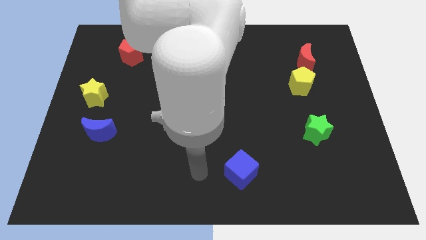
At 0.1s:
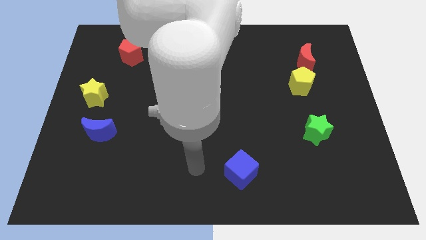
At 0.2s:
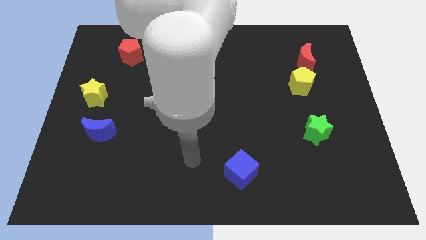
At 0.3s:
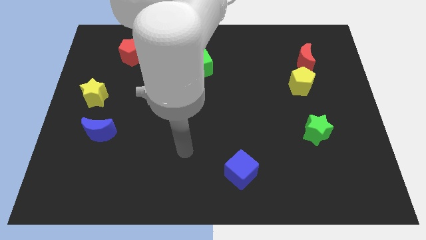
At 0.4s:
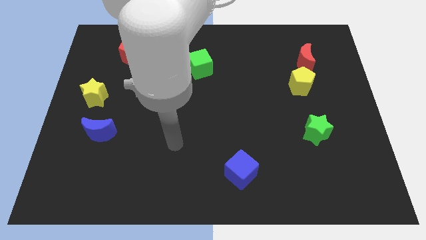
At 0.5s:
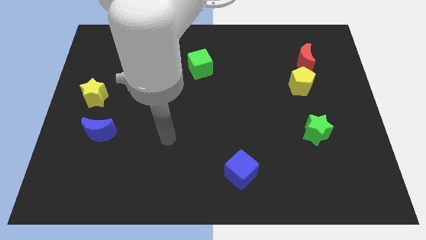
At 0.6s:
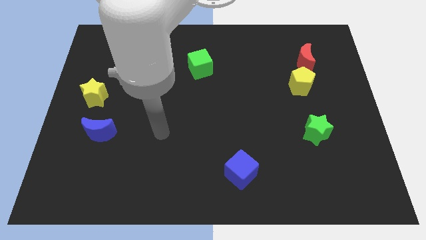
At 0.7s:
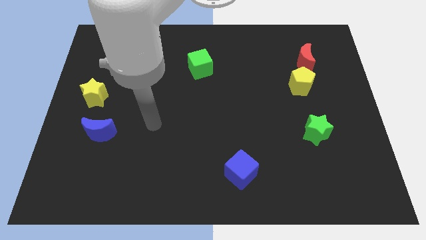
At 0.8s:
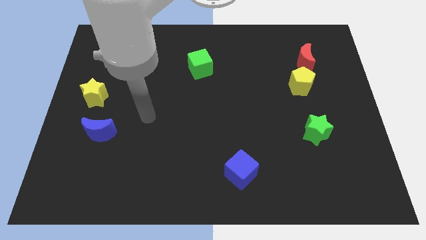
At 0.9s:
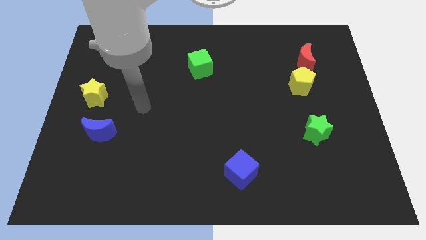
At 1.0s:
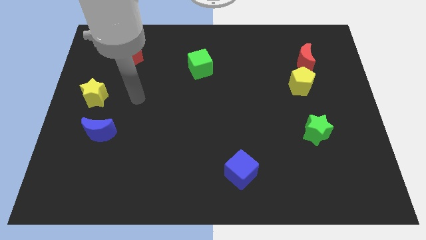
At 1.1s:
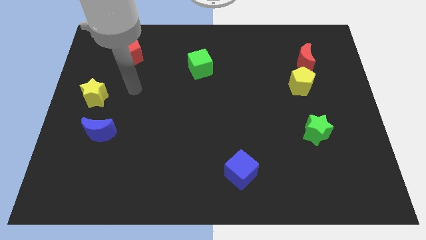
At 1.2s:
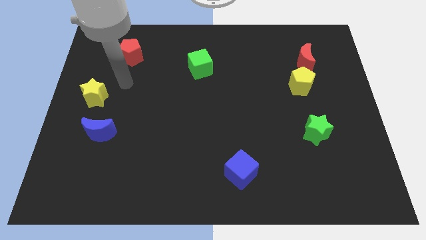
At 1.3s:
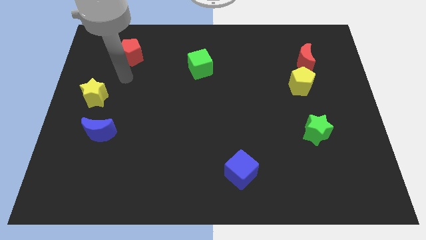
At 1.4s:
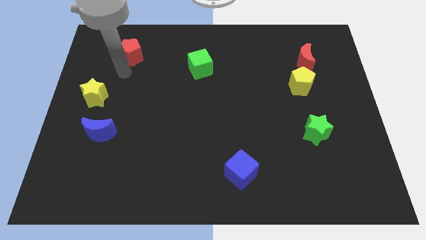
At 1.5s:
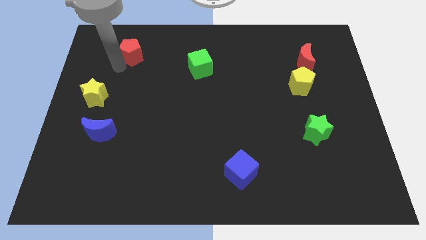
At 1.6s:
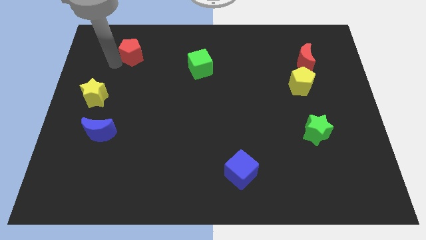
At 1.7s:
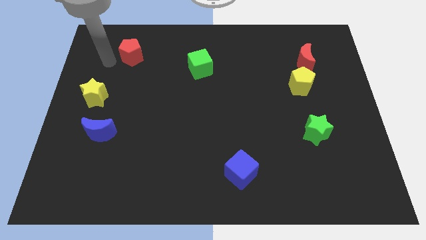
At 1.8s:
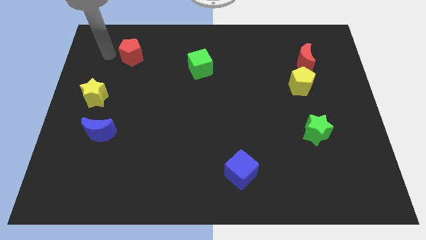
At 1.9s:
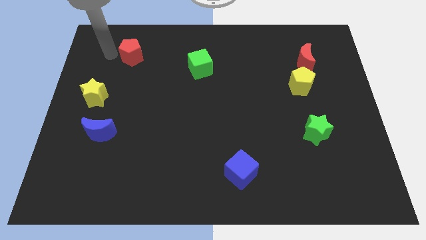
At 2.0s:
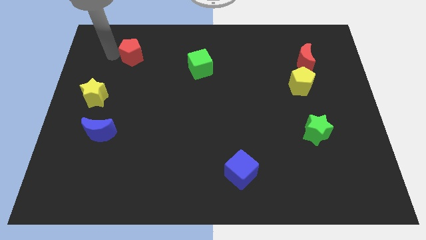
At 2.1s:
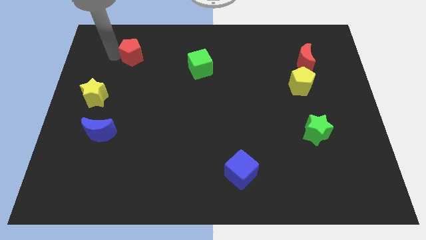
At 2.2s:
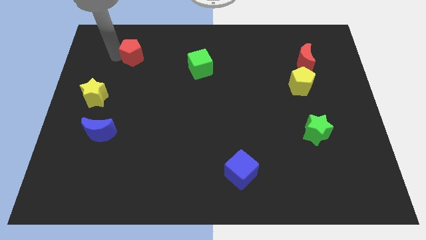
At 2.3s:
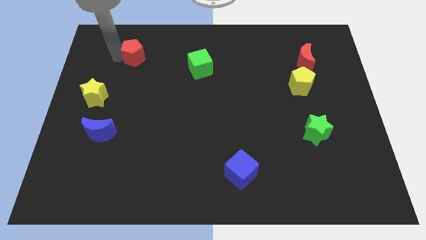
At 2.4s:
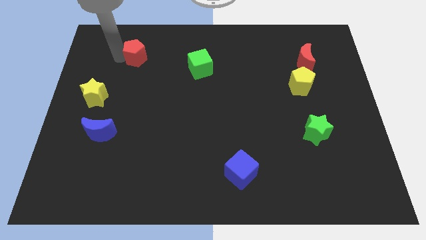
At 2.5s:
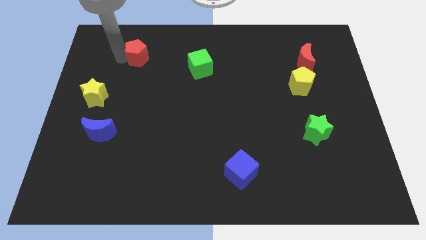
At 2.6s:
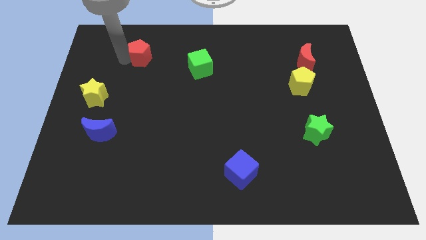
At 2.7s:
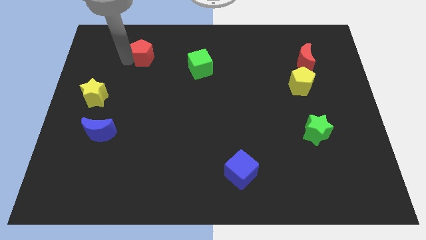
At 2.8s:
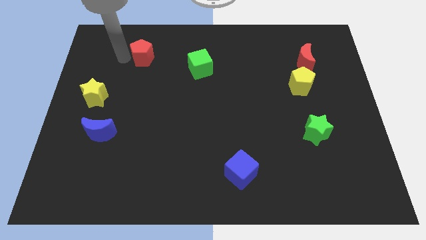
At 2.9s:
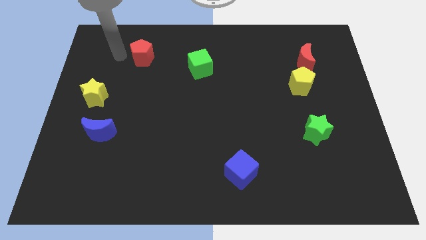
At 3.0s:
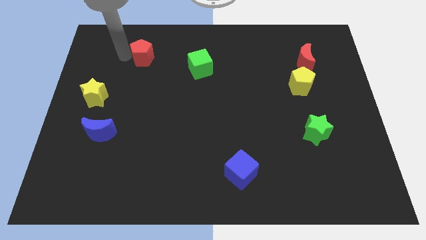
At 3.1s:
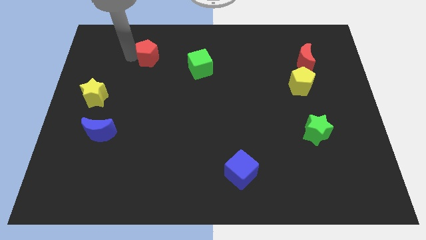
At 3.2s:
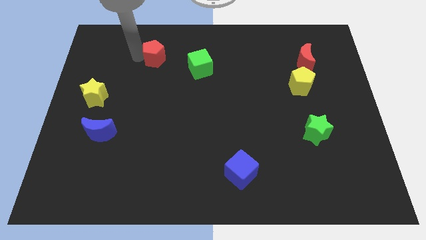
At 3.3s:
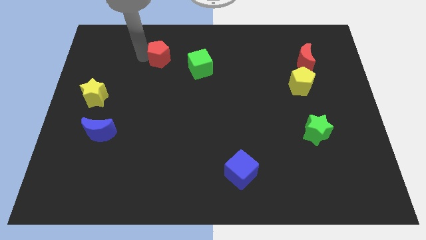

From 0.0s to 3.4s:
slightly push the red pentagon right

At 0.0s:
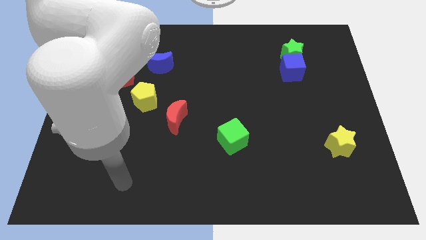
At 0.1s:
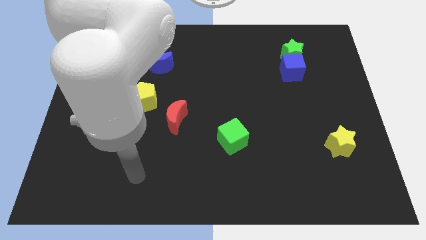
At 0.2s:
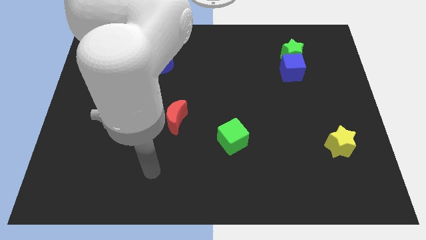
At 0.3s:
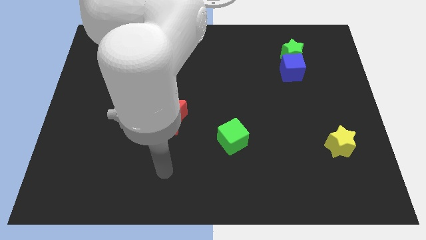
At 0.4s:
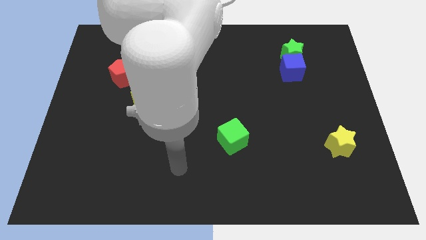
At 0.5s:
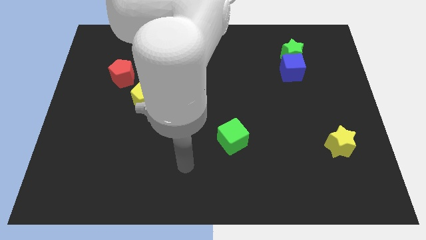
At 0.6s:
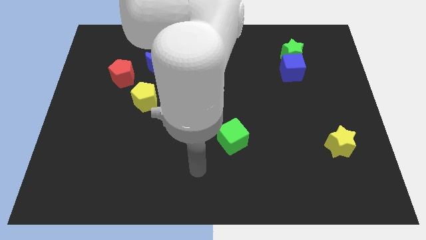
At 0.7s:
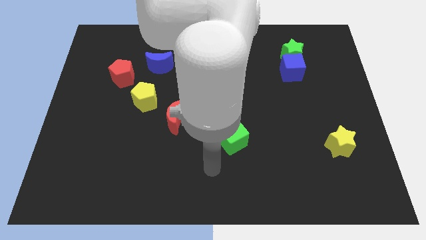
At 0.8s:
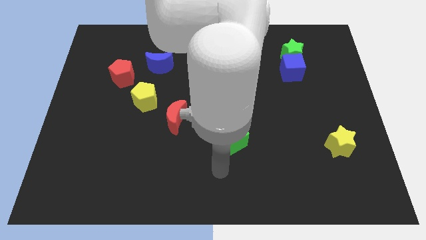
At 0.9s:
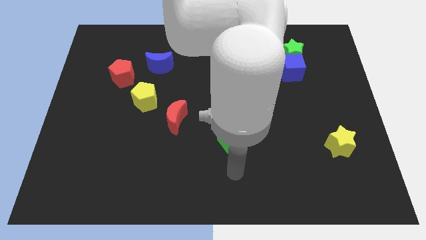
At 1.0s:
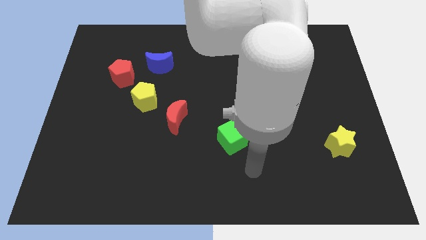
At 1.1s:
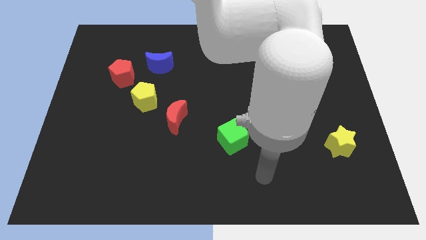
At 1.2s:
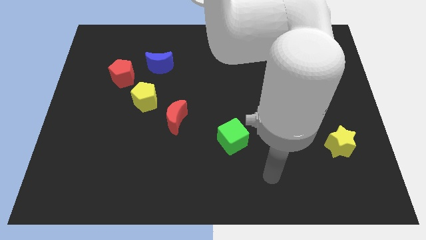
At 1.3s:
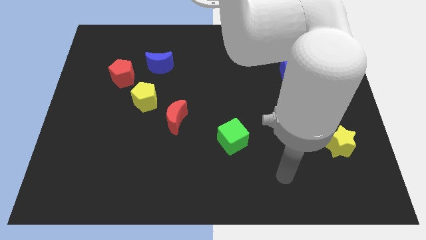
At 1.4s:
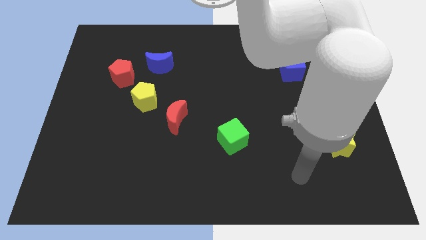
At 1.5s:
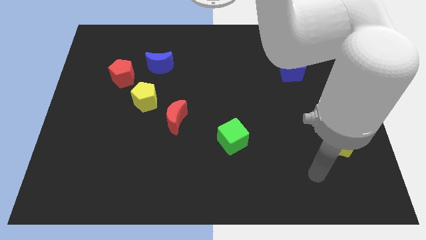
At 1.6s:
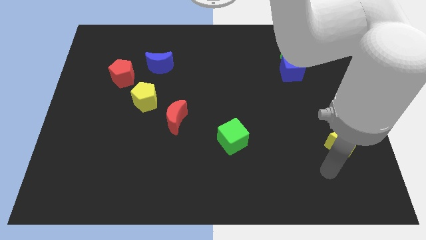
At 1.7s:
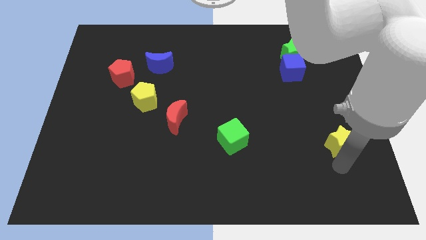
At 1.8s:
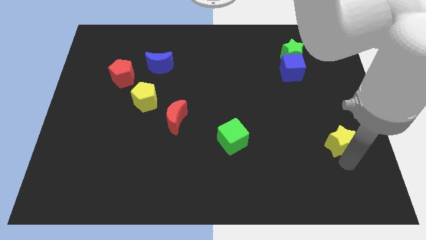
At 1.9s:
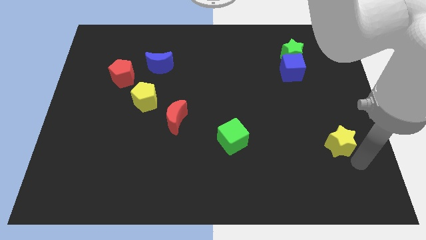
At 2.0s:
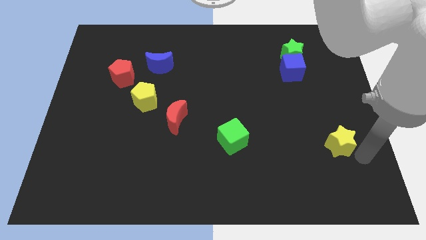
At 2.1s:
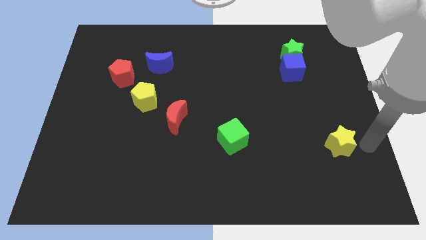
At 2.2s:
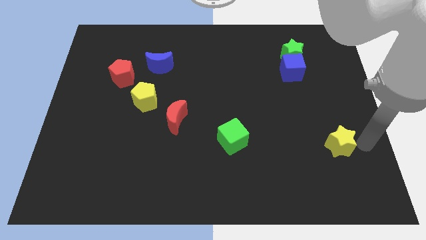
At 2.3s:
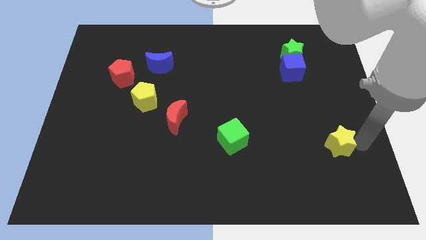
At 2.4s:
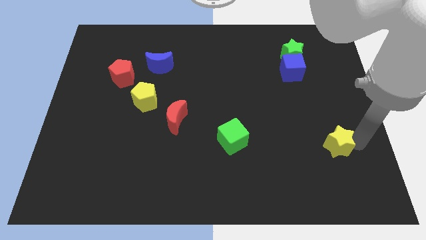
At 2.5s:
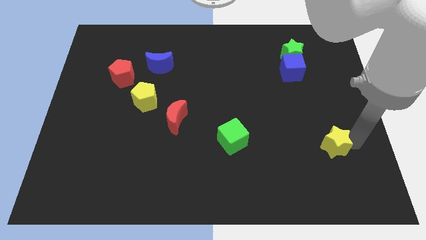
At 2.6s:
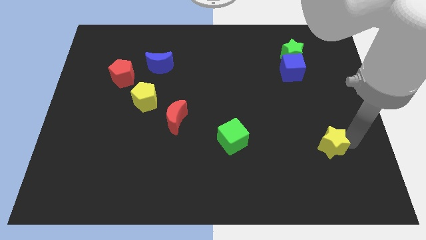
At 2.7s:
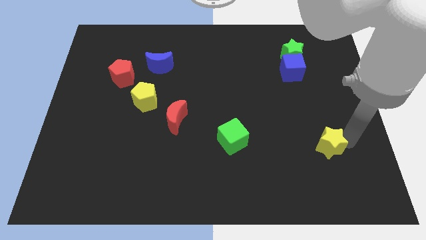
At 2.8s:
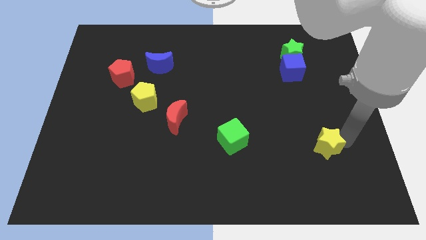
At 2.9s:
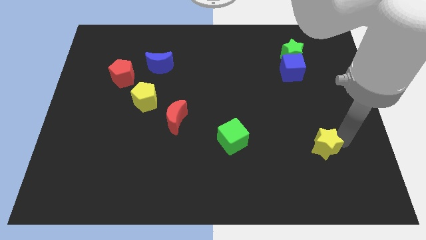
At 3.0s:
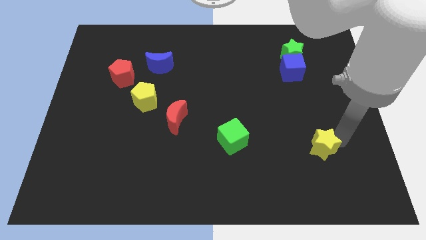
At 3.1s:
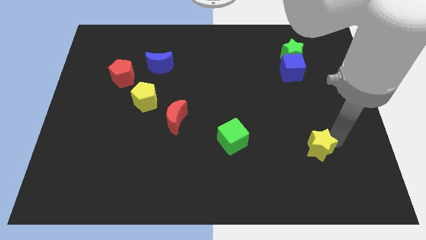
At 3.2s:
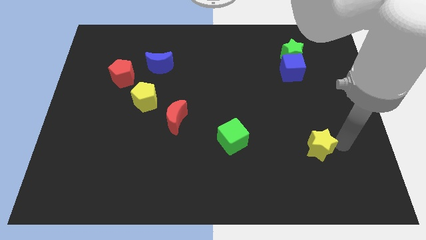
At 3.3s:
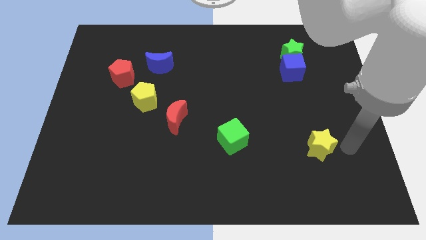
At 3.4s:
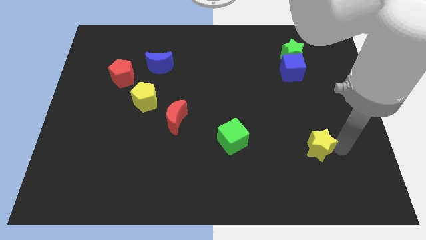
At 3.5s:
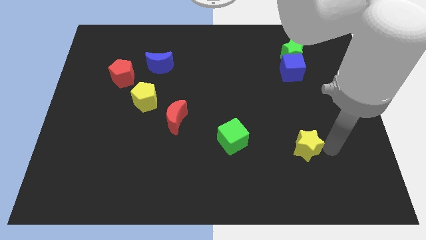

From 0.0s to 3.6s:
slightly slide the yellow star left

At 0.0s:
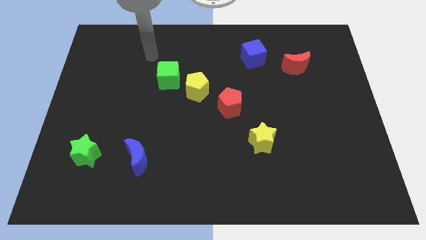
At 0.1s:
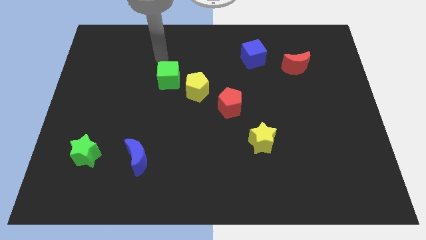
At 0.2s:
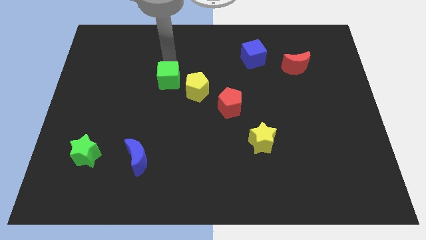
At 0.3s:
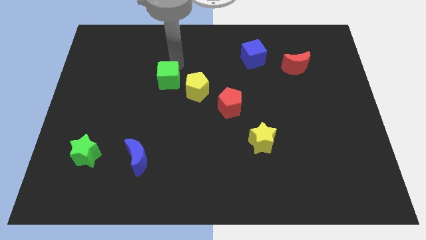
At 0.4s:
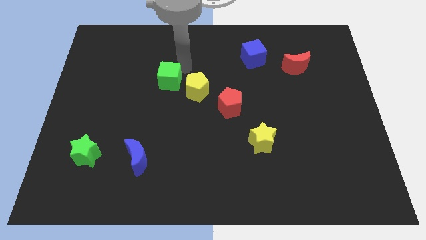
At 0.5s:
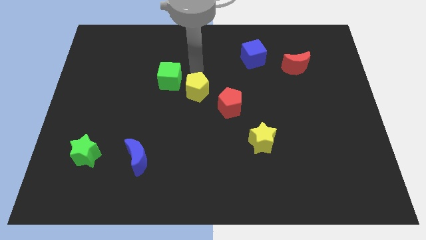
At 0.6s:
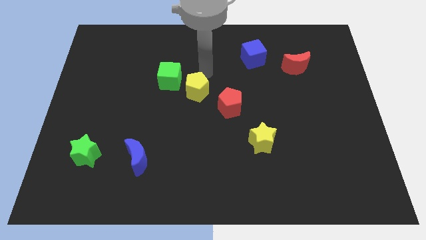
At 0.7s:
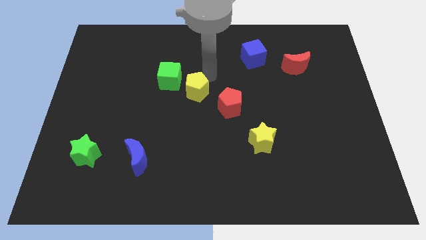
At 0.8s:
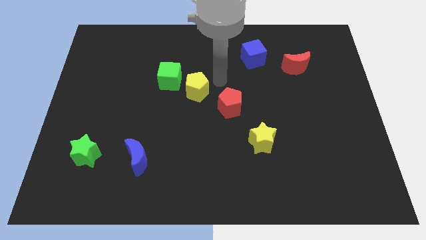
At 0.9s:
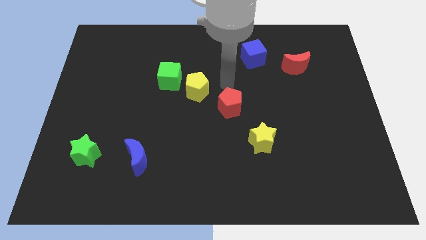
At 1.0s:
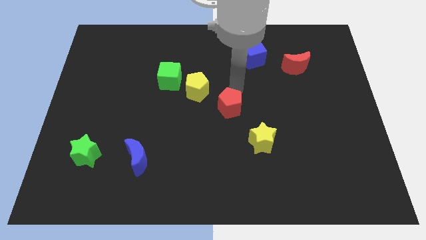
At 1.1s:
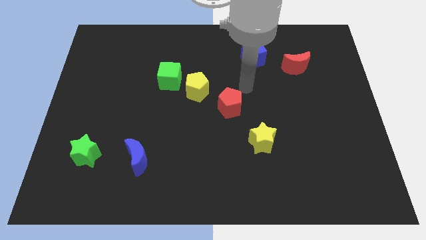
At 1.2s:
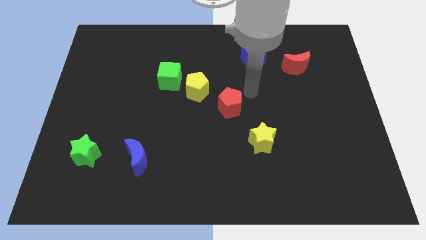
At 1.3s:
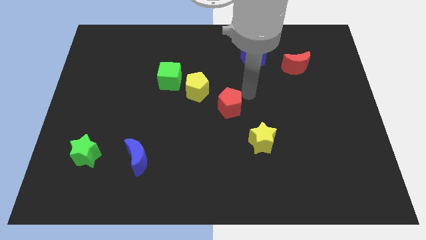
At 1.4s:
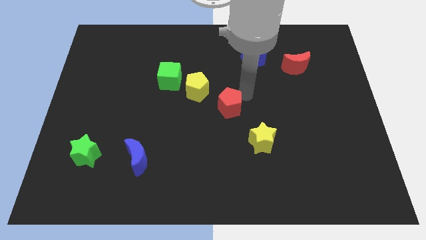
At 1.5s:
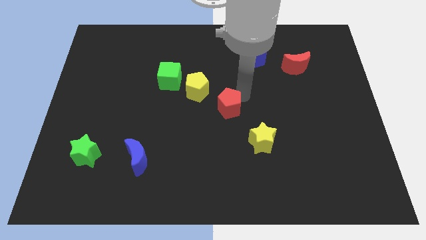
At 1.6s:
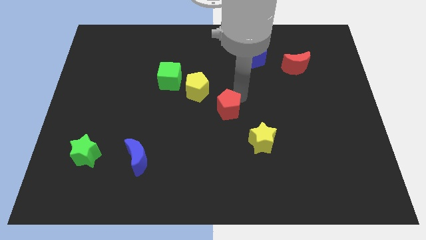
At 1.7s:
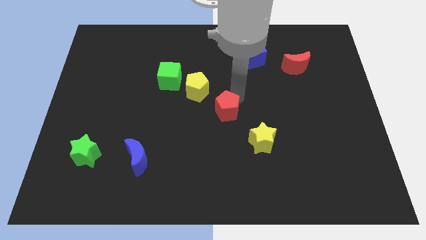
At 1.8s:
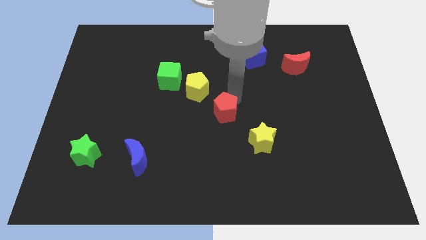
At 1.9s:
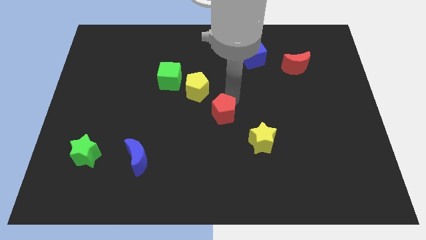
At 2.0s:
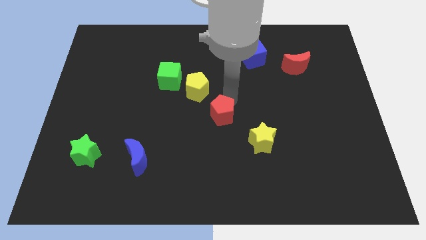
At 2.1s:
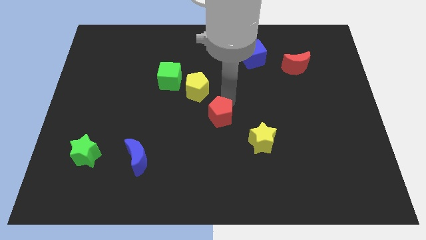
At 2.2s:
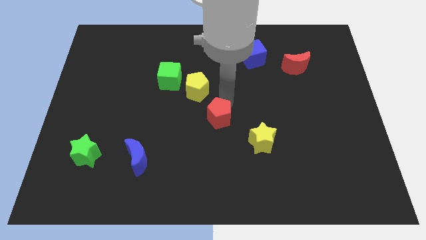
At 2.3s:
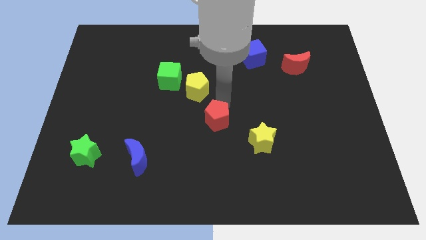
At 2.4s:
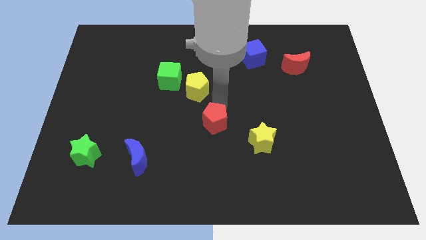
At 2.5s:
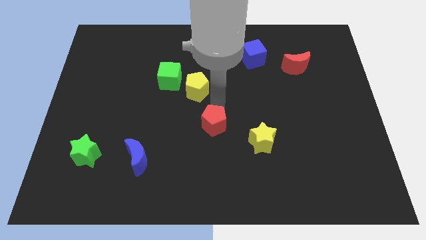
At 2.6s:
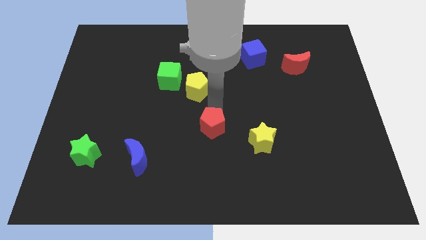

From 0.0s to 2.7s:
slightly move the red pentagon down and then left
